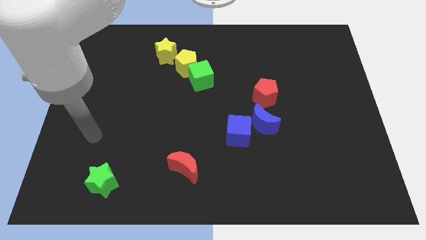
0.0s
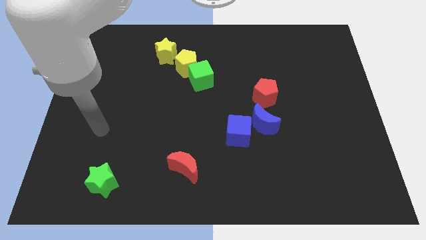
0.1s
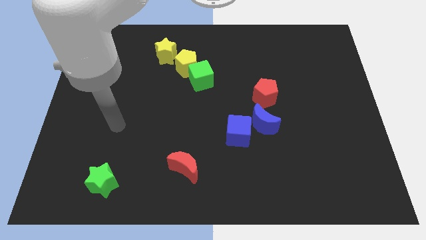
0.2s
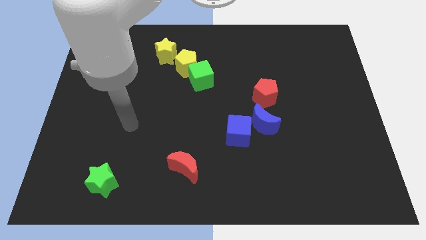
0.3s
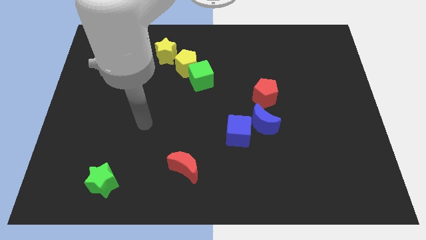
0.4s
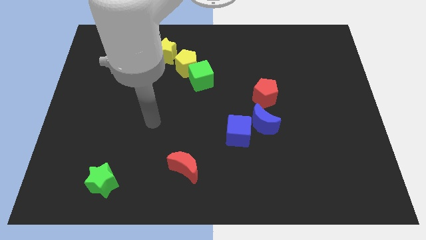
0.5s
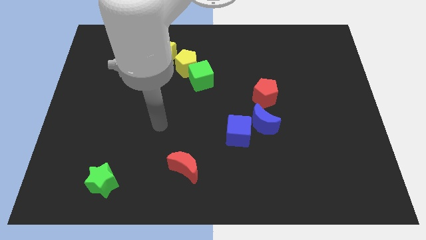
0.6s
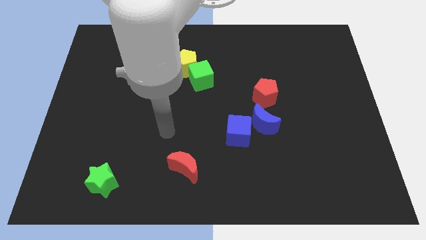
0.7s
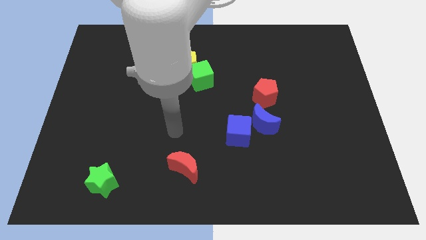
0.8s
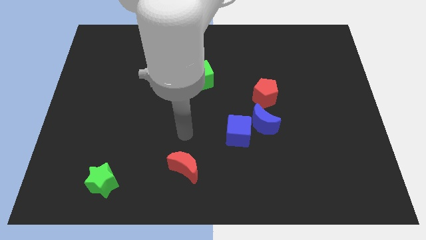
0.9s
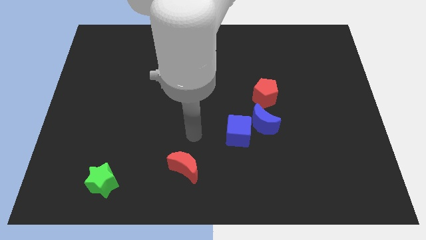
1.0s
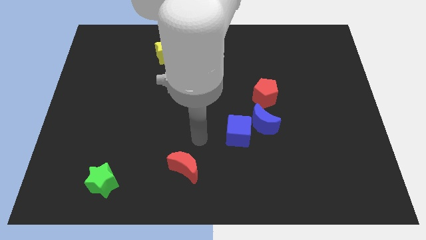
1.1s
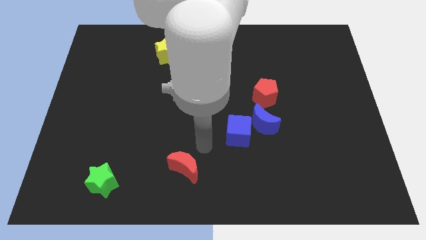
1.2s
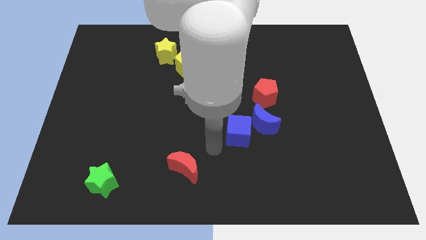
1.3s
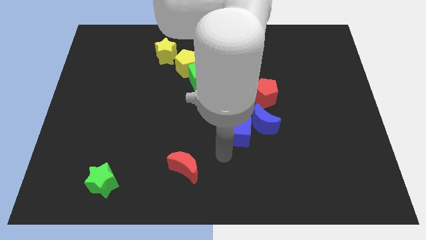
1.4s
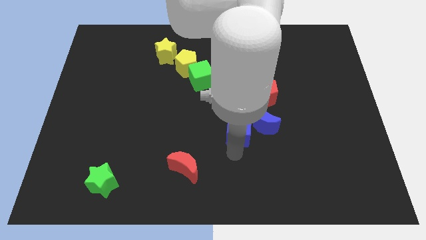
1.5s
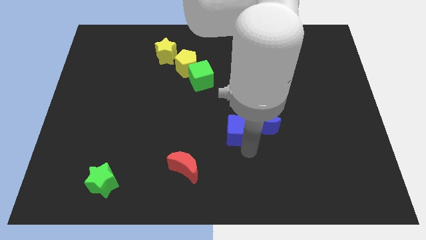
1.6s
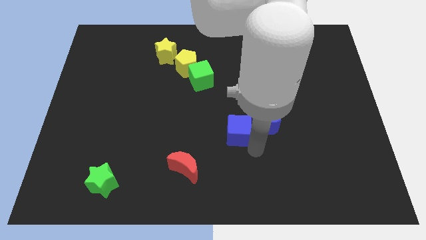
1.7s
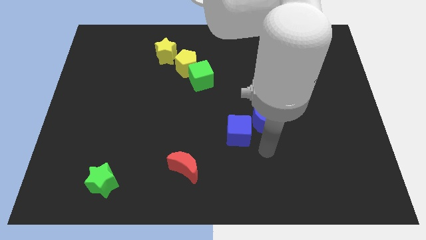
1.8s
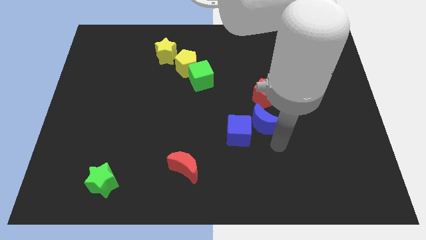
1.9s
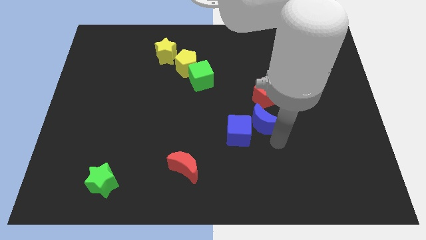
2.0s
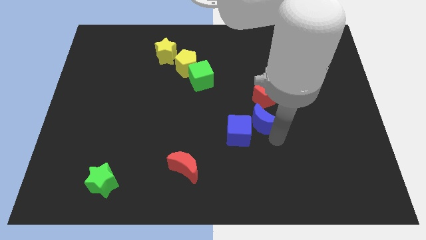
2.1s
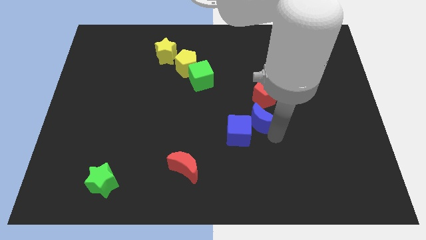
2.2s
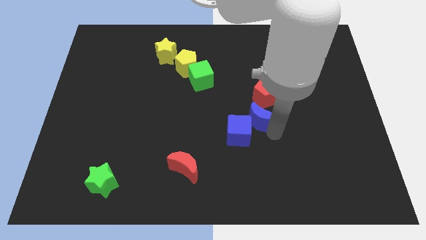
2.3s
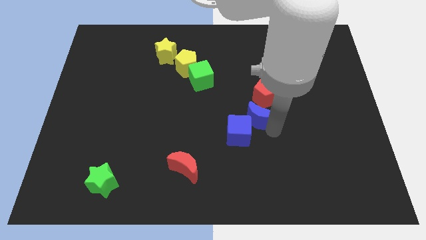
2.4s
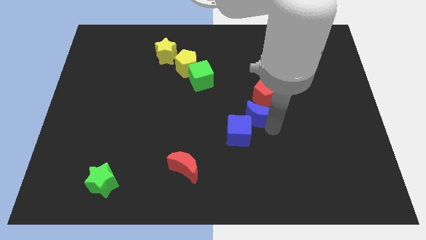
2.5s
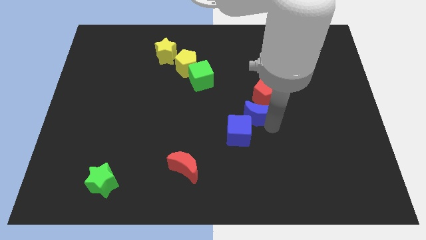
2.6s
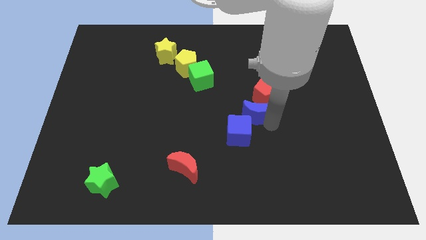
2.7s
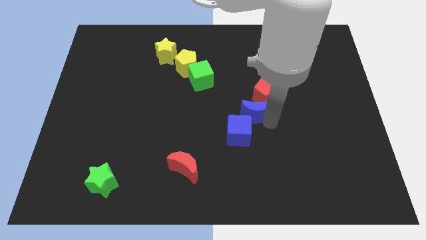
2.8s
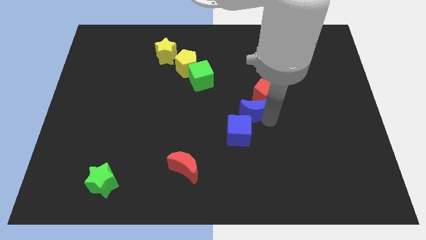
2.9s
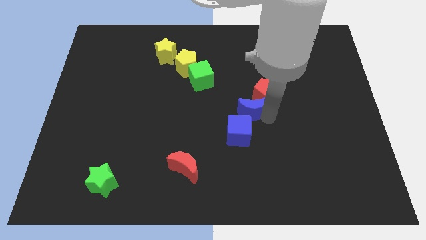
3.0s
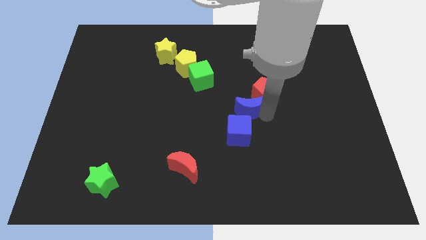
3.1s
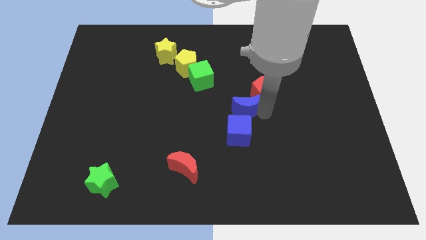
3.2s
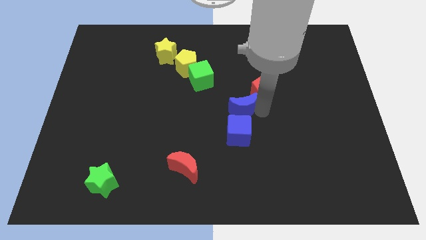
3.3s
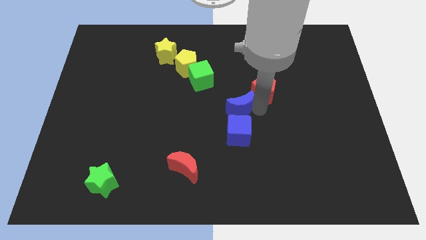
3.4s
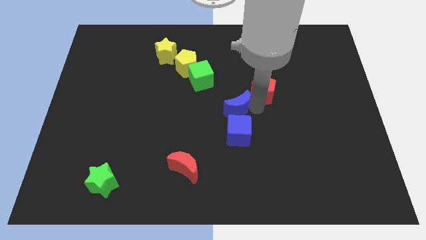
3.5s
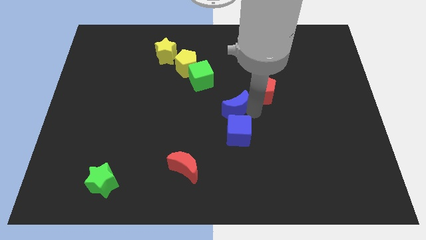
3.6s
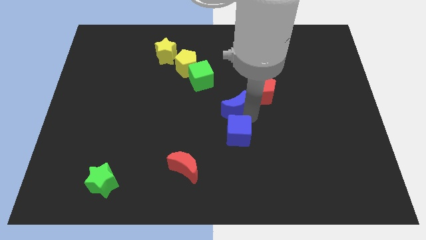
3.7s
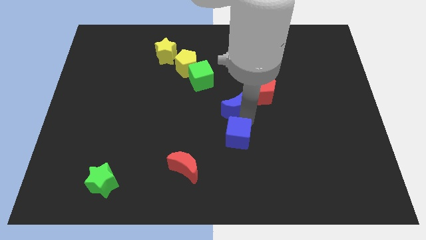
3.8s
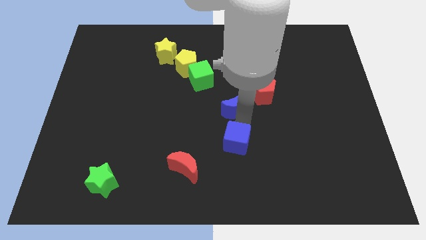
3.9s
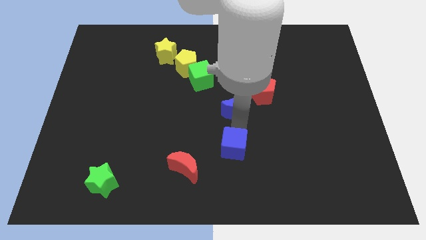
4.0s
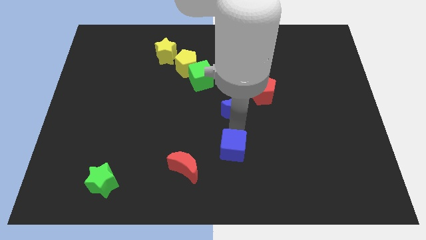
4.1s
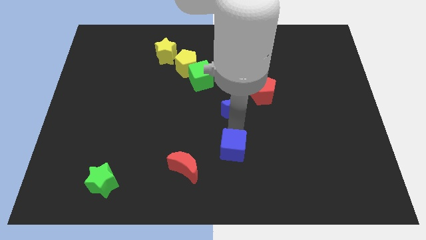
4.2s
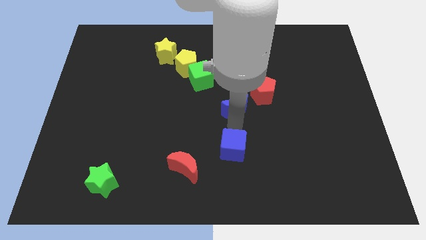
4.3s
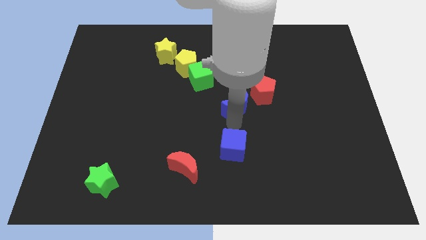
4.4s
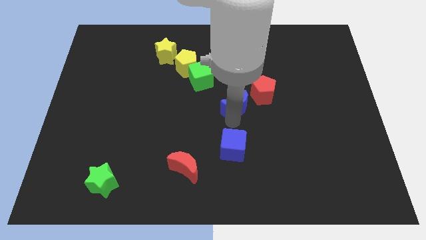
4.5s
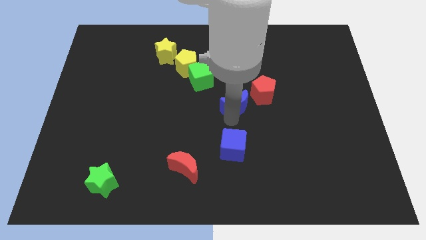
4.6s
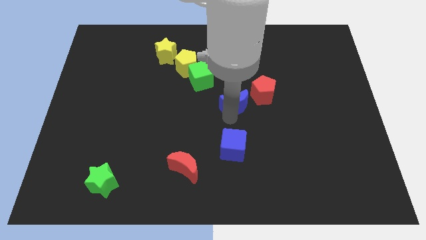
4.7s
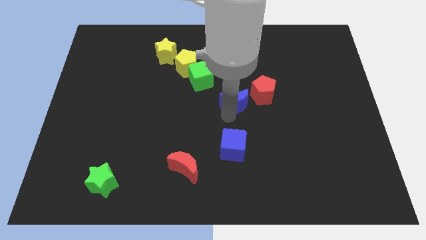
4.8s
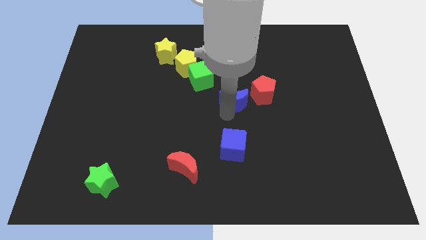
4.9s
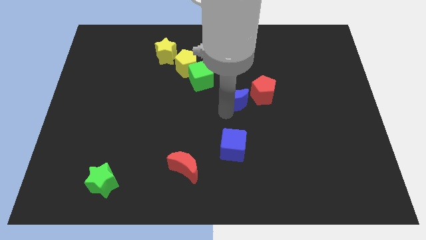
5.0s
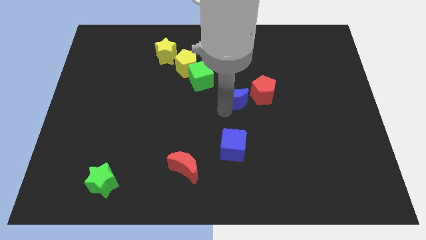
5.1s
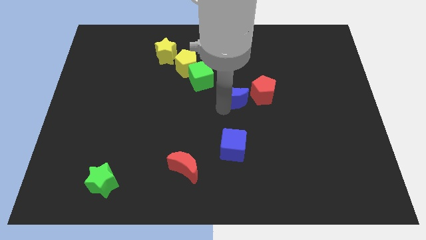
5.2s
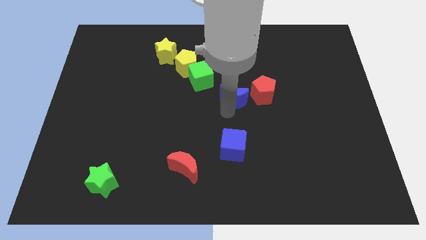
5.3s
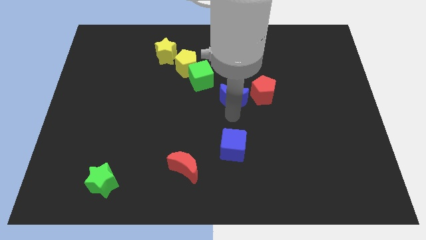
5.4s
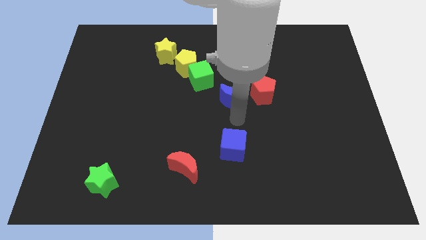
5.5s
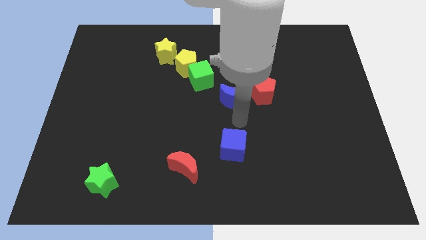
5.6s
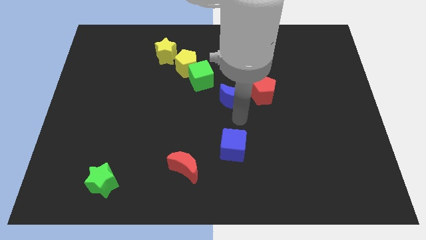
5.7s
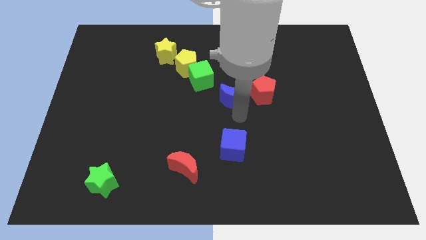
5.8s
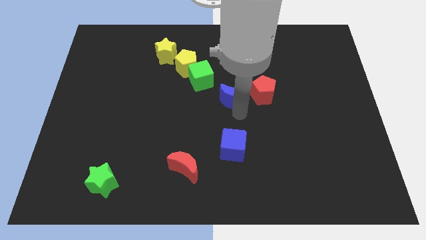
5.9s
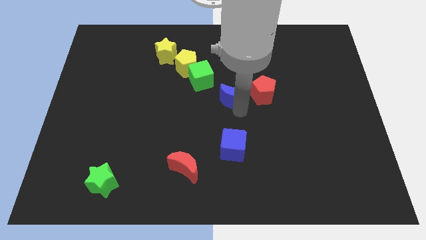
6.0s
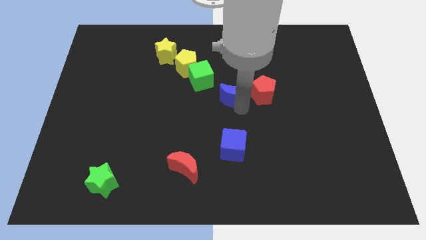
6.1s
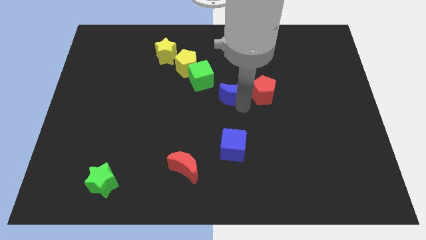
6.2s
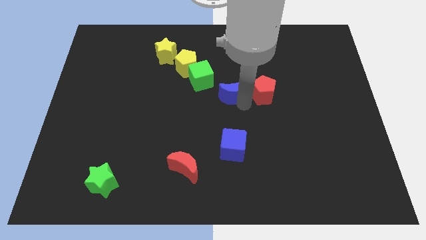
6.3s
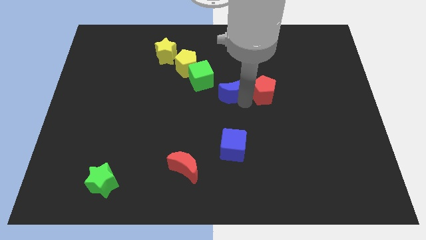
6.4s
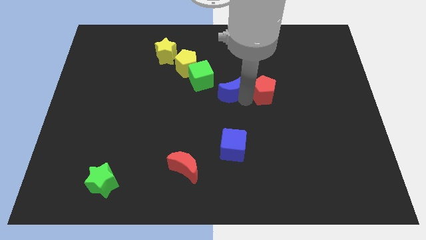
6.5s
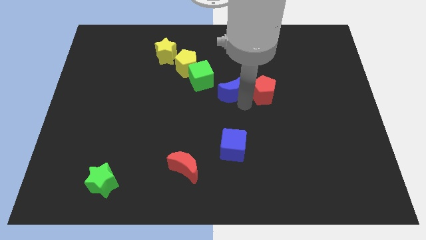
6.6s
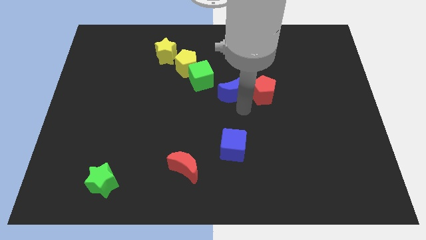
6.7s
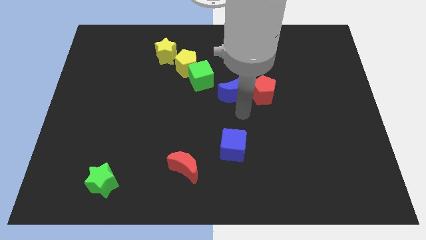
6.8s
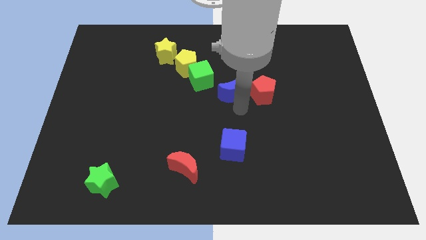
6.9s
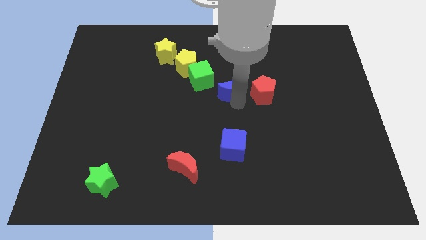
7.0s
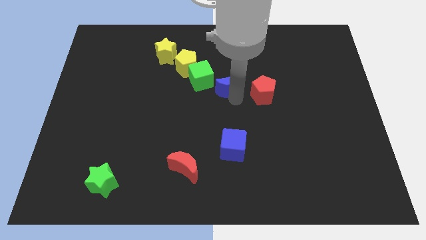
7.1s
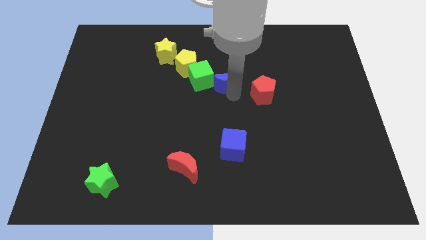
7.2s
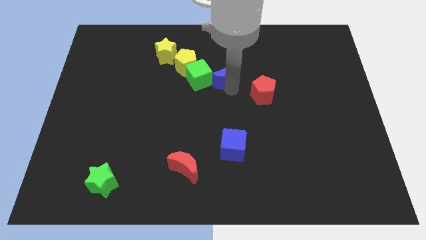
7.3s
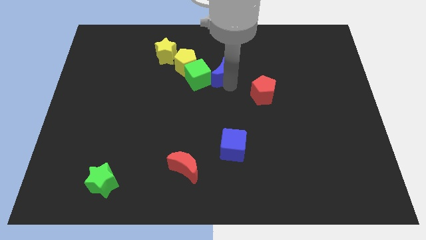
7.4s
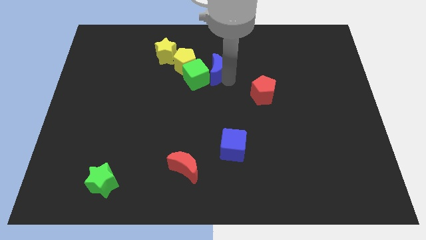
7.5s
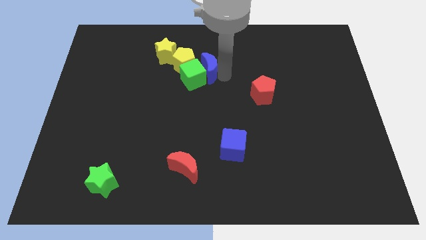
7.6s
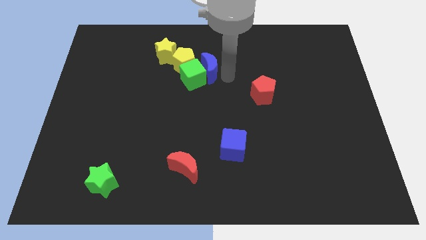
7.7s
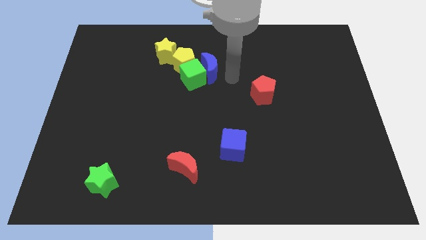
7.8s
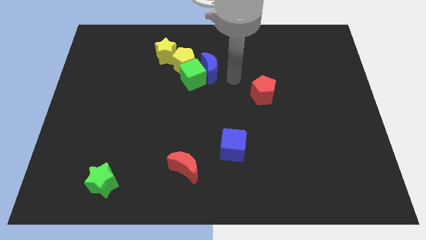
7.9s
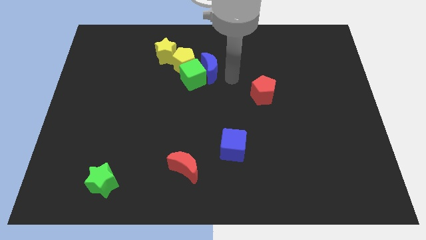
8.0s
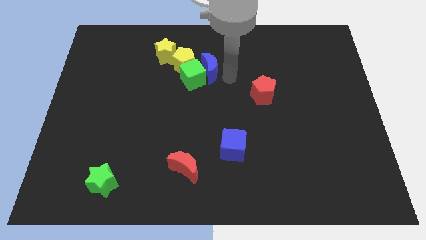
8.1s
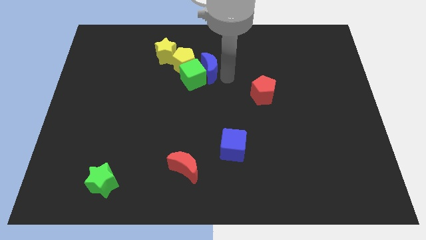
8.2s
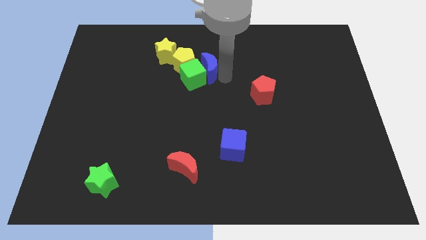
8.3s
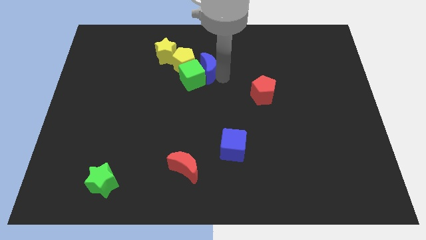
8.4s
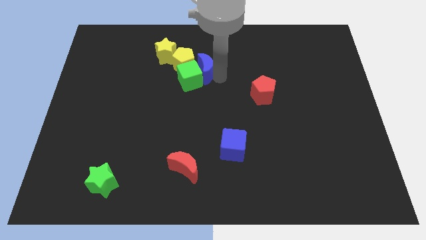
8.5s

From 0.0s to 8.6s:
move the blue moon next to the yellow pentagon
